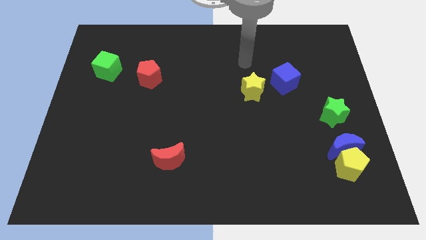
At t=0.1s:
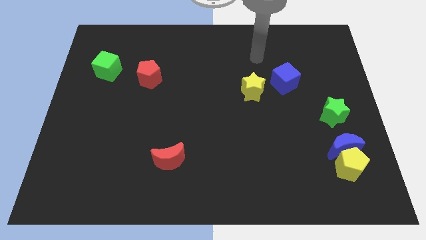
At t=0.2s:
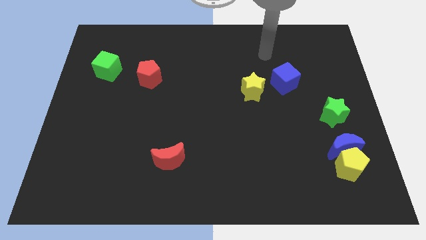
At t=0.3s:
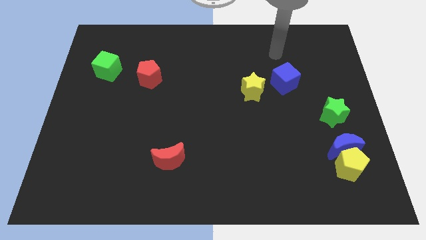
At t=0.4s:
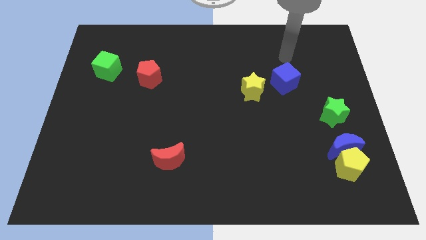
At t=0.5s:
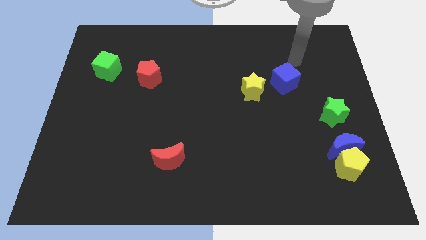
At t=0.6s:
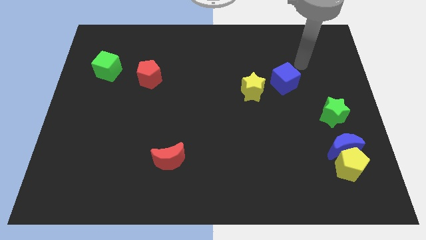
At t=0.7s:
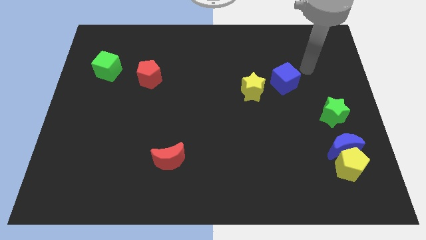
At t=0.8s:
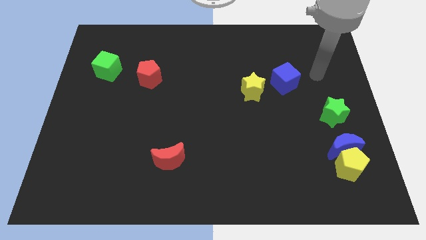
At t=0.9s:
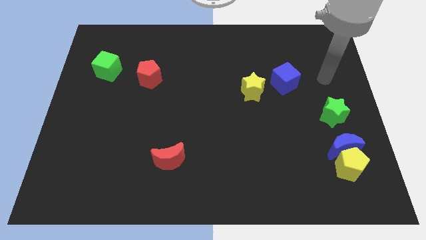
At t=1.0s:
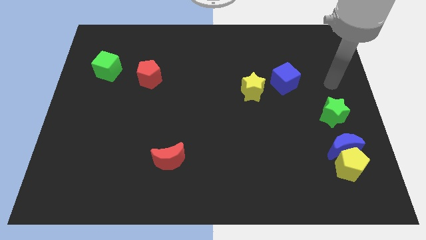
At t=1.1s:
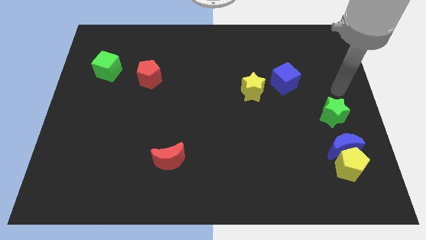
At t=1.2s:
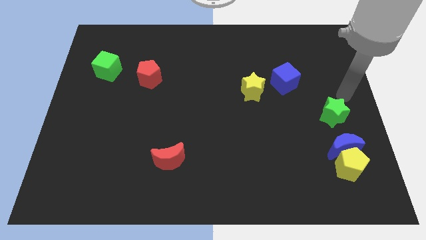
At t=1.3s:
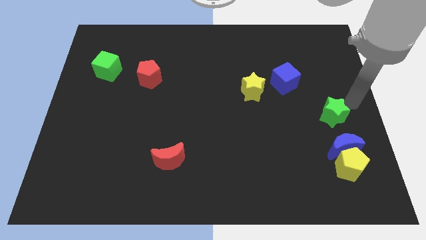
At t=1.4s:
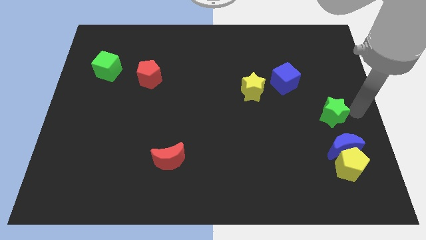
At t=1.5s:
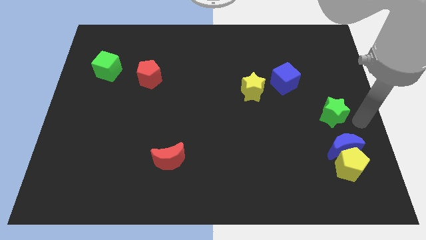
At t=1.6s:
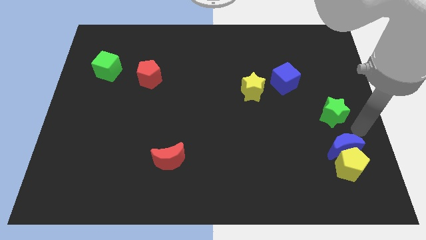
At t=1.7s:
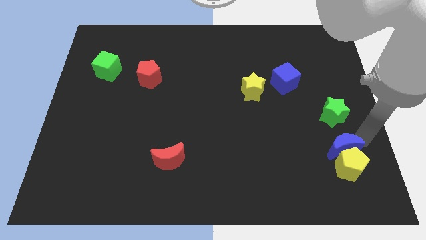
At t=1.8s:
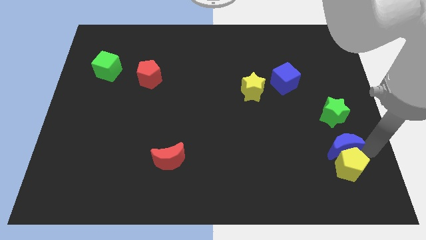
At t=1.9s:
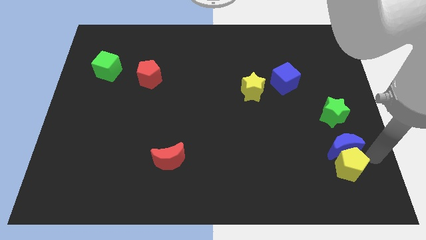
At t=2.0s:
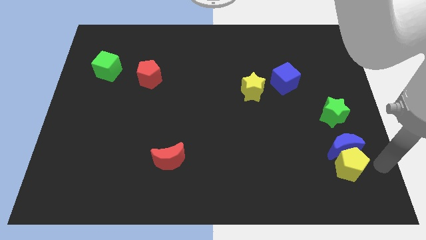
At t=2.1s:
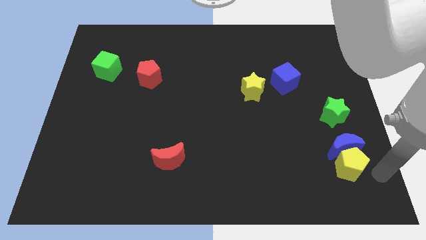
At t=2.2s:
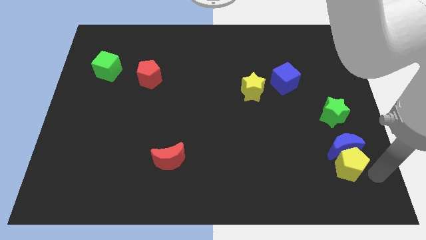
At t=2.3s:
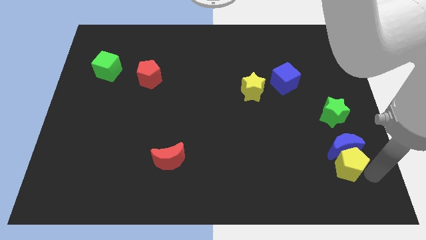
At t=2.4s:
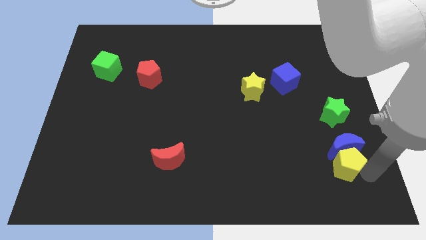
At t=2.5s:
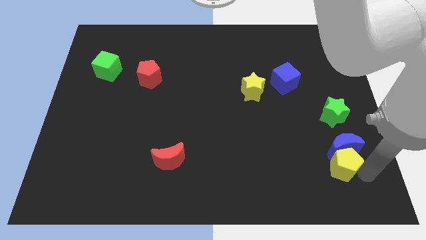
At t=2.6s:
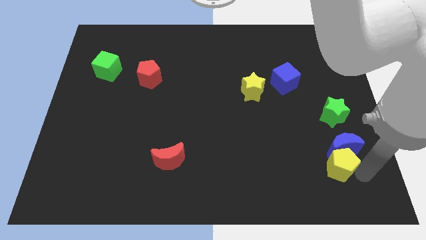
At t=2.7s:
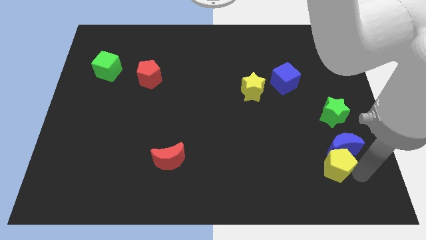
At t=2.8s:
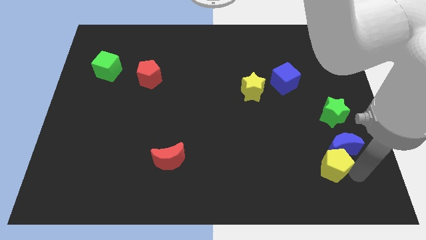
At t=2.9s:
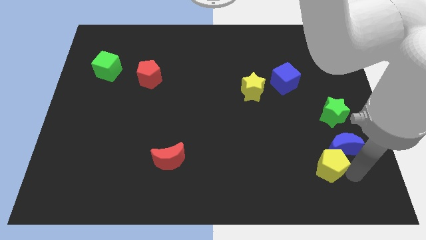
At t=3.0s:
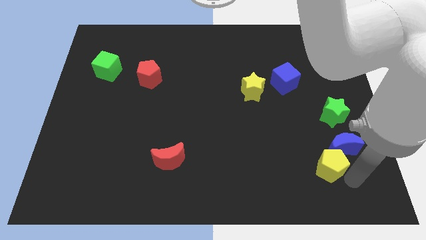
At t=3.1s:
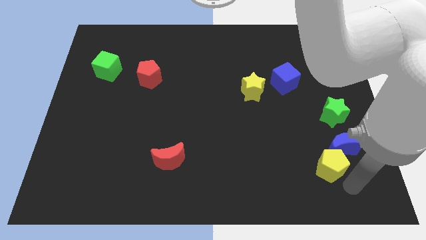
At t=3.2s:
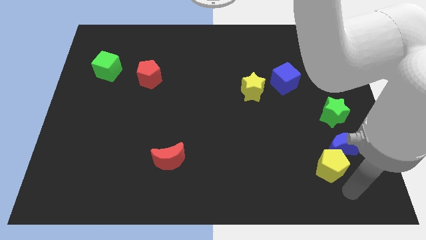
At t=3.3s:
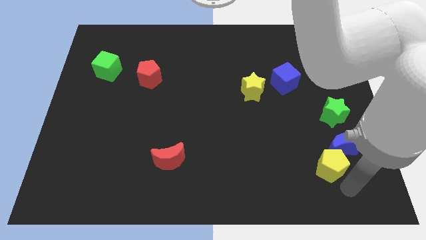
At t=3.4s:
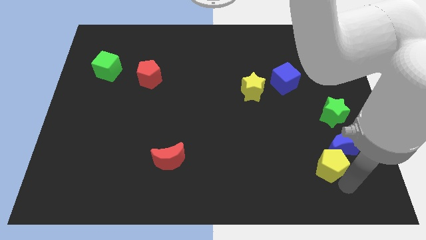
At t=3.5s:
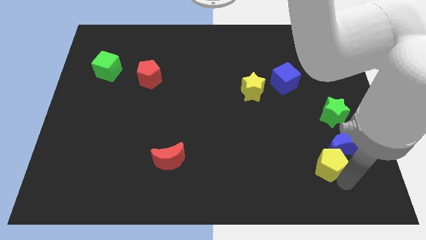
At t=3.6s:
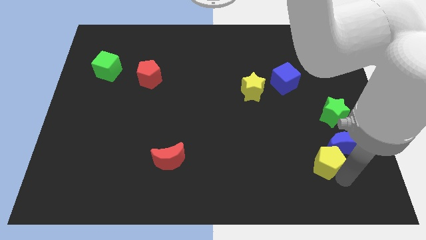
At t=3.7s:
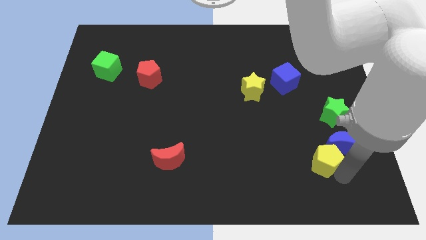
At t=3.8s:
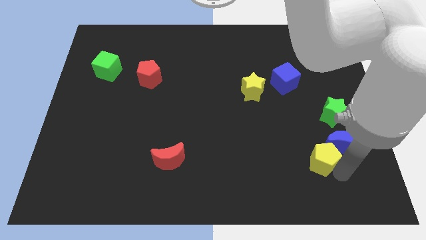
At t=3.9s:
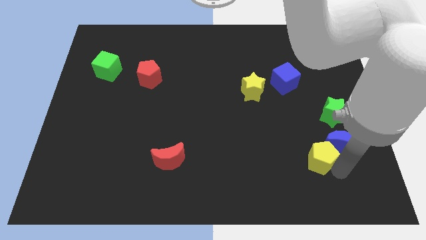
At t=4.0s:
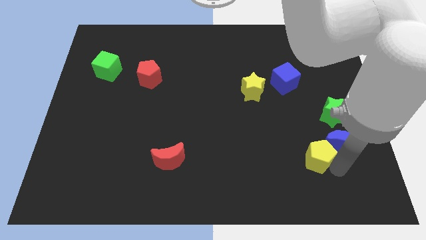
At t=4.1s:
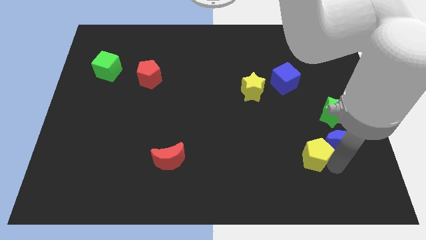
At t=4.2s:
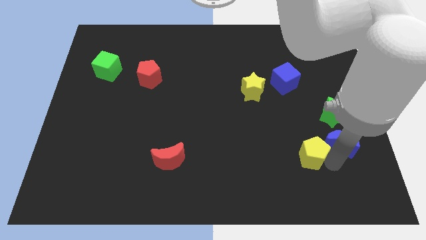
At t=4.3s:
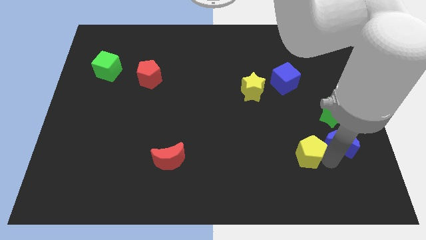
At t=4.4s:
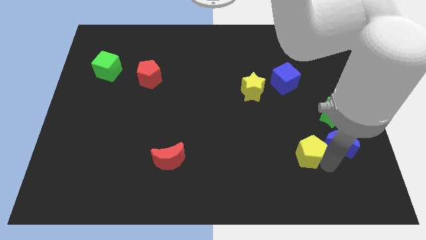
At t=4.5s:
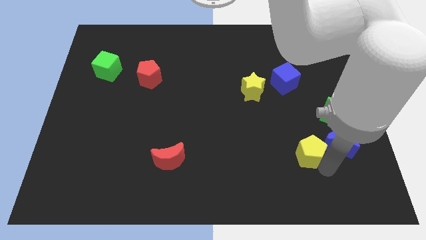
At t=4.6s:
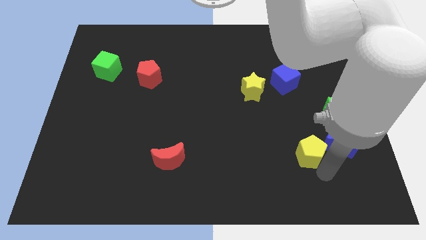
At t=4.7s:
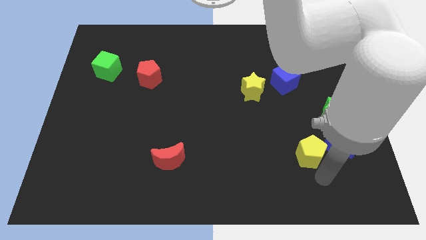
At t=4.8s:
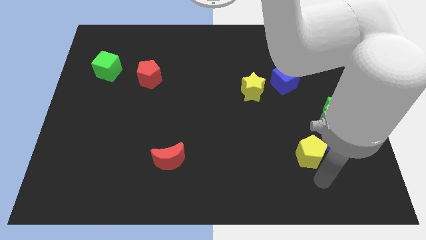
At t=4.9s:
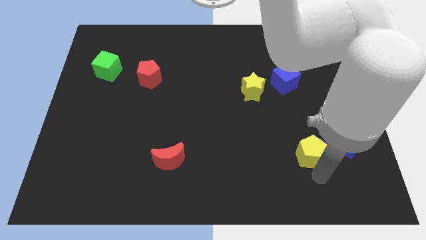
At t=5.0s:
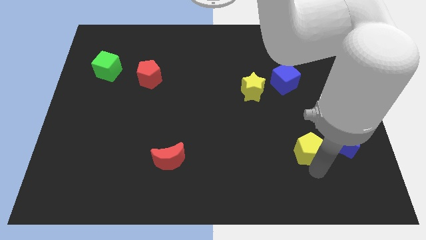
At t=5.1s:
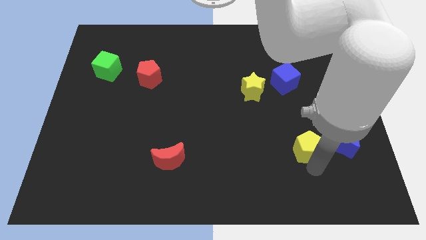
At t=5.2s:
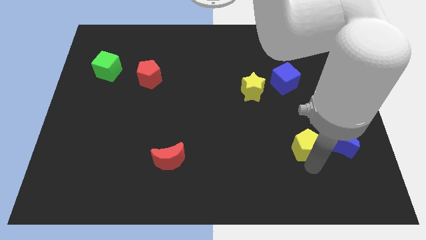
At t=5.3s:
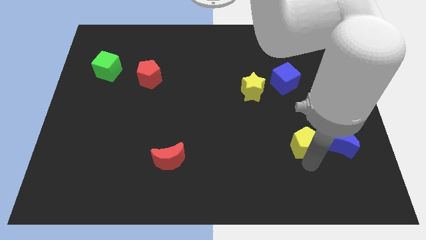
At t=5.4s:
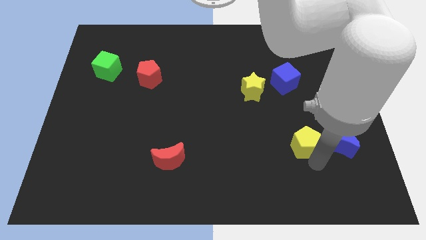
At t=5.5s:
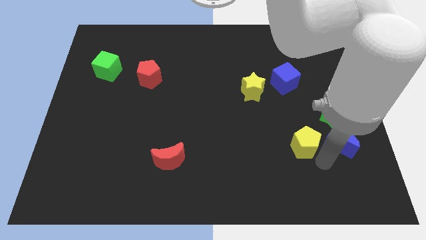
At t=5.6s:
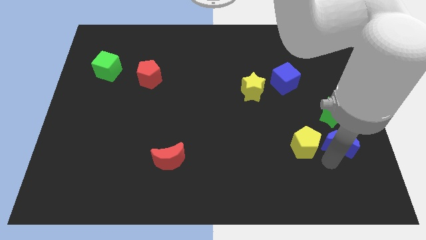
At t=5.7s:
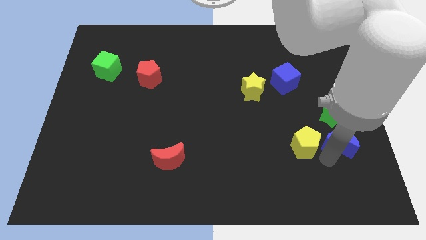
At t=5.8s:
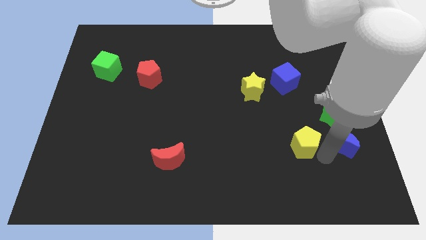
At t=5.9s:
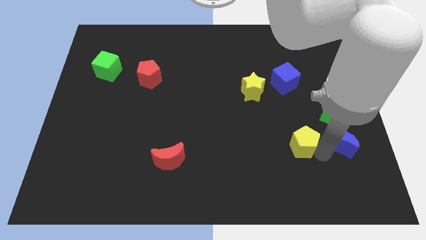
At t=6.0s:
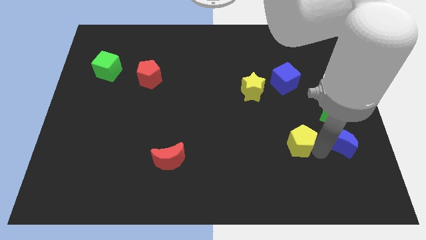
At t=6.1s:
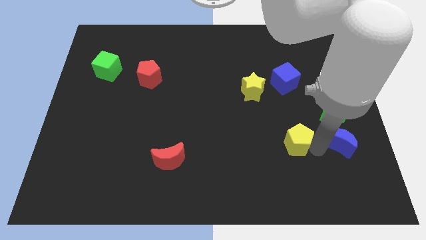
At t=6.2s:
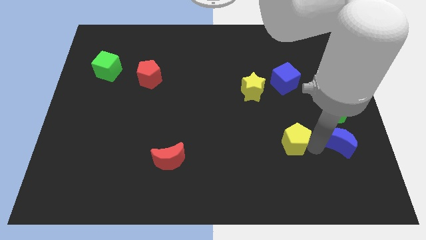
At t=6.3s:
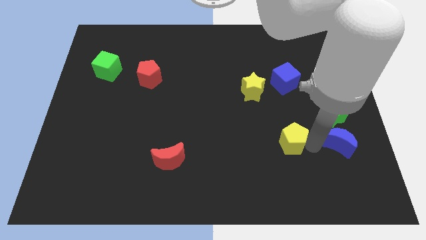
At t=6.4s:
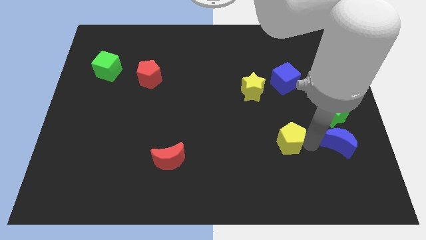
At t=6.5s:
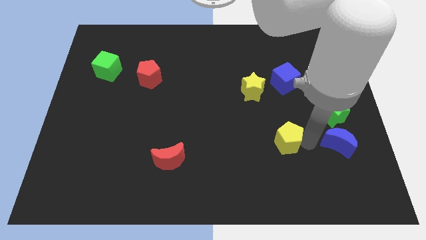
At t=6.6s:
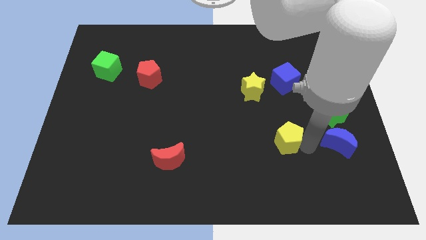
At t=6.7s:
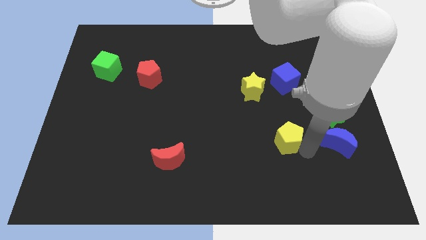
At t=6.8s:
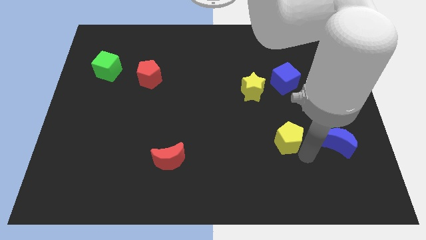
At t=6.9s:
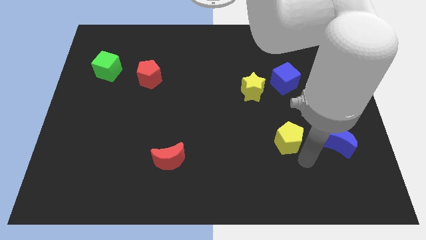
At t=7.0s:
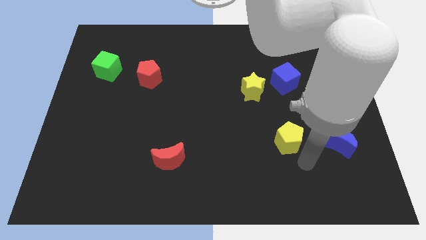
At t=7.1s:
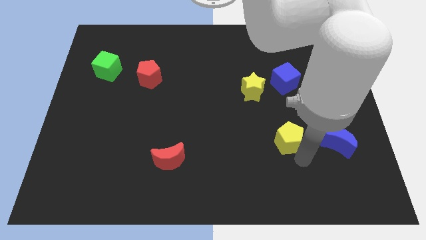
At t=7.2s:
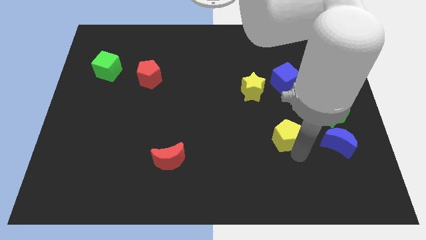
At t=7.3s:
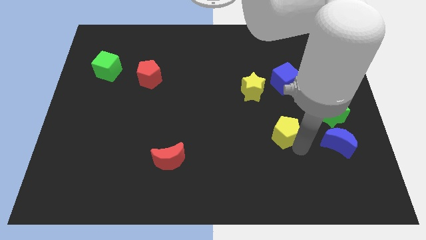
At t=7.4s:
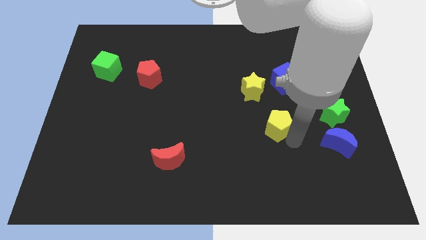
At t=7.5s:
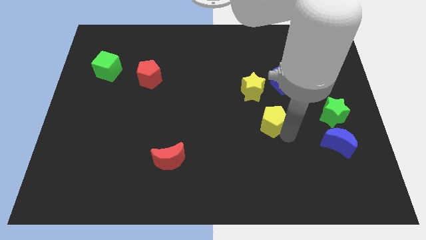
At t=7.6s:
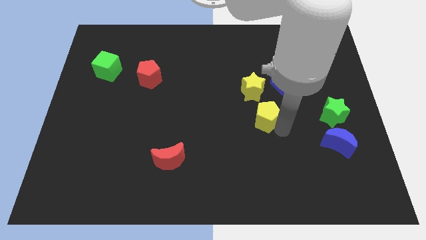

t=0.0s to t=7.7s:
push the yellow pentagon upwards and to the left diagonally

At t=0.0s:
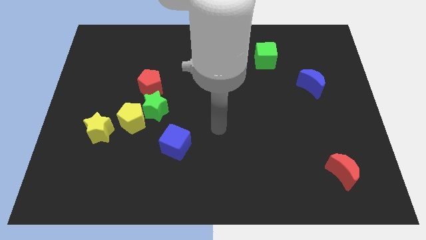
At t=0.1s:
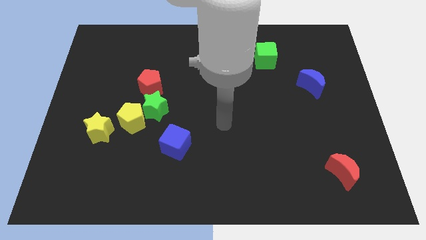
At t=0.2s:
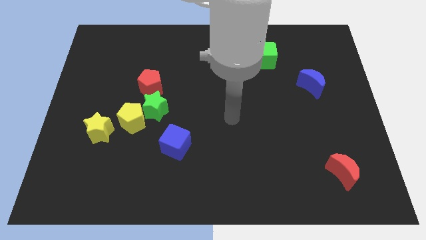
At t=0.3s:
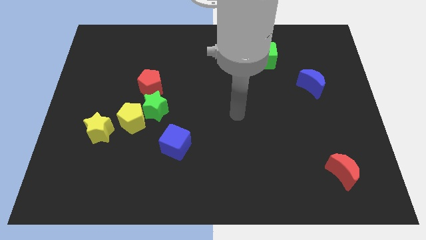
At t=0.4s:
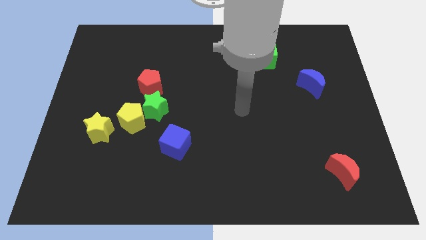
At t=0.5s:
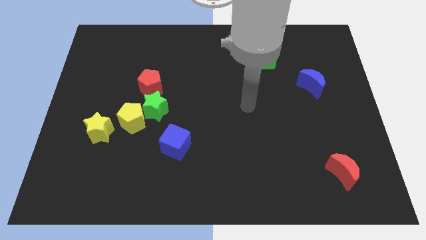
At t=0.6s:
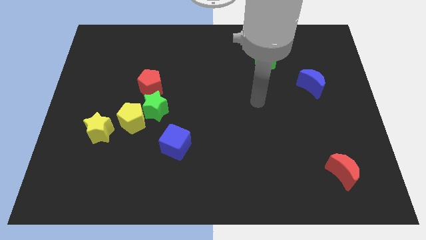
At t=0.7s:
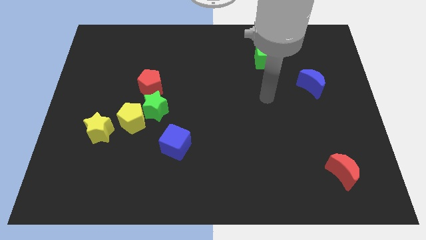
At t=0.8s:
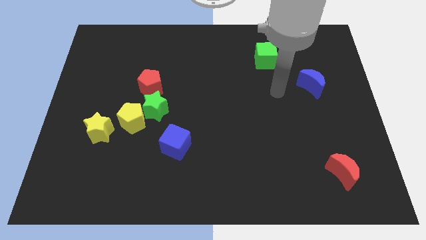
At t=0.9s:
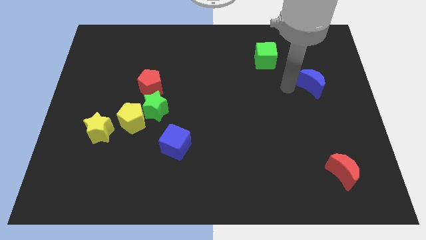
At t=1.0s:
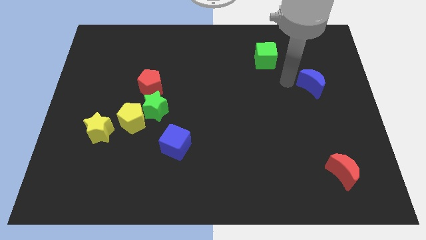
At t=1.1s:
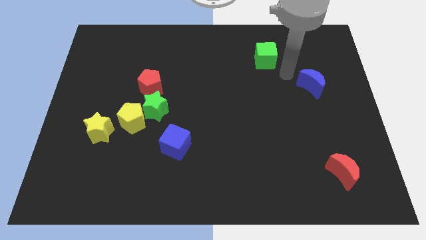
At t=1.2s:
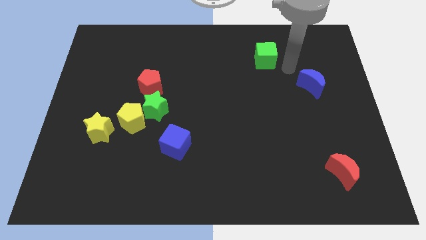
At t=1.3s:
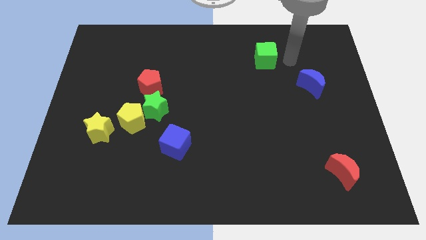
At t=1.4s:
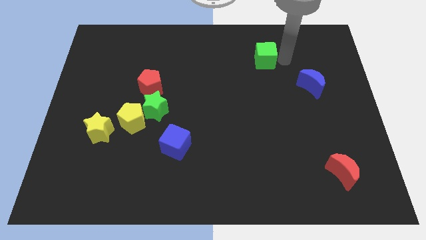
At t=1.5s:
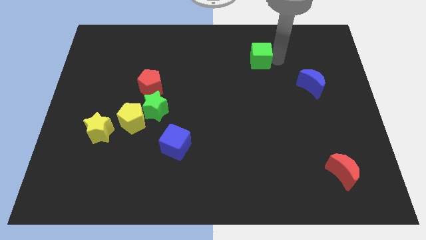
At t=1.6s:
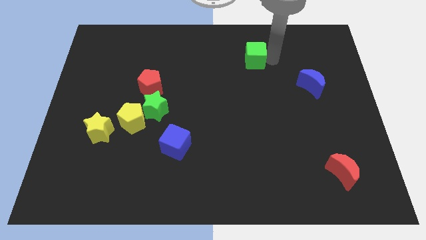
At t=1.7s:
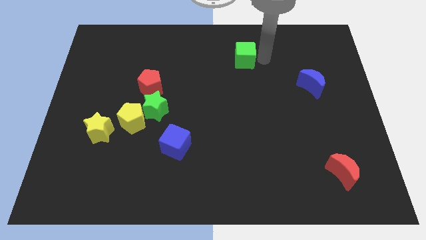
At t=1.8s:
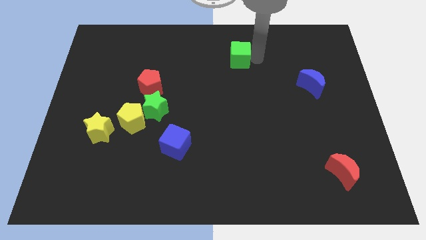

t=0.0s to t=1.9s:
move the green cube left slightly
